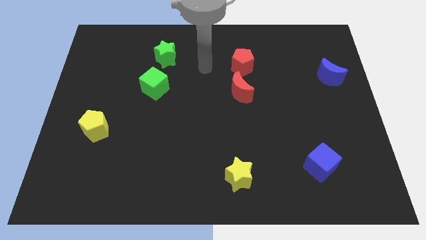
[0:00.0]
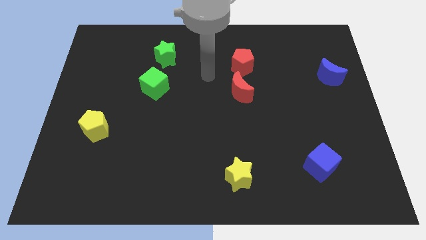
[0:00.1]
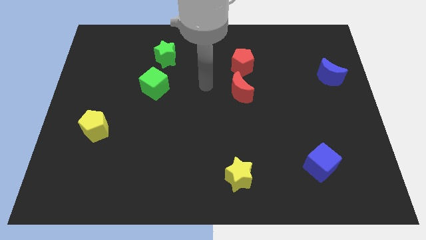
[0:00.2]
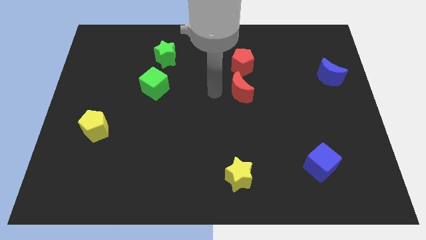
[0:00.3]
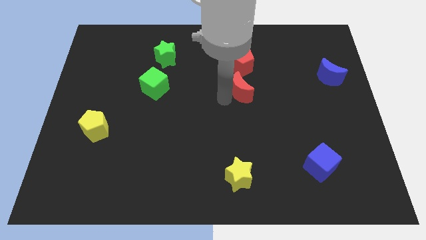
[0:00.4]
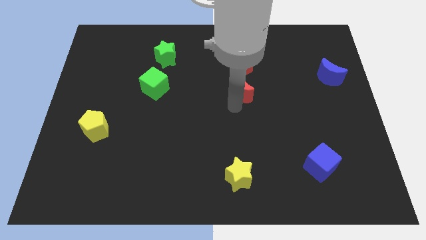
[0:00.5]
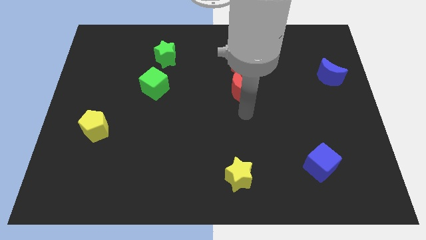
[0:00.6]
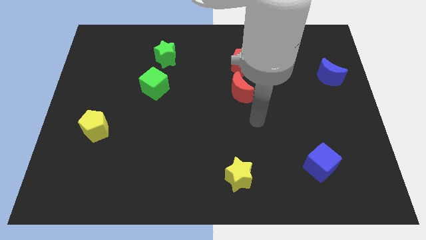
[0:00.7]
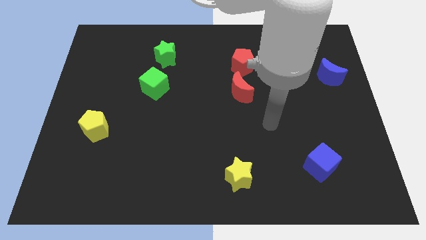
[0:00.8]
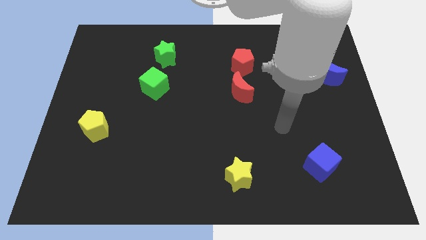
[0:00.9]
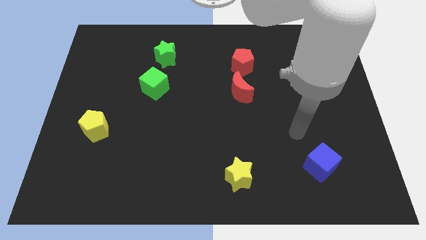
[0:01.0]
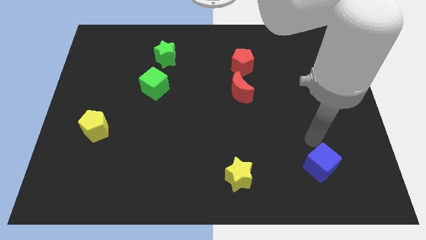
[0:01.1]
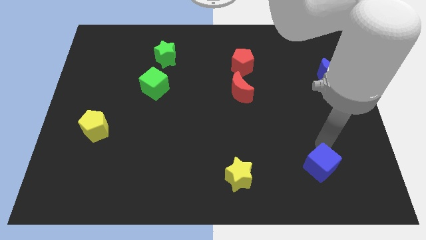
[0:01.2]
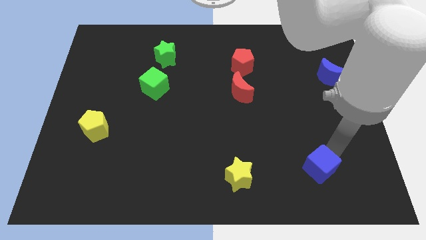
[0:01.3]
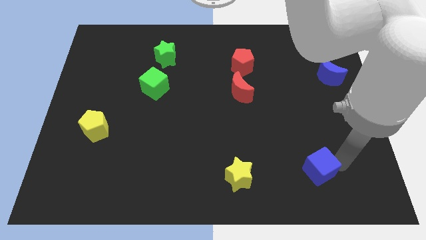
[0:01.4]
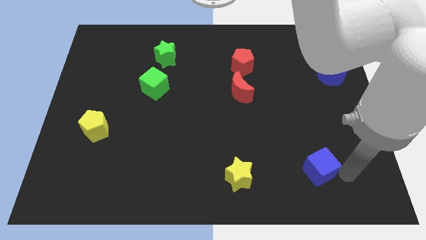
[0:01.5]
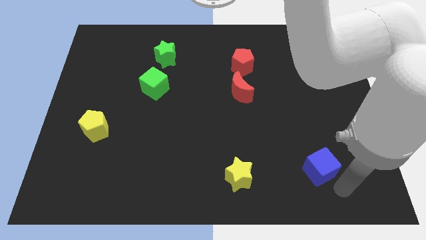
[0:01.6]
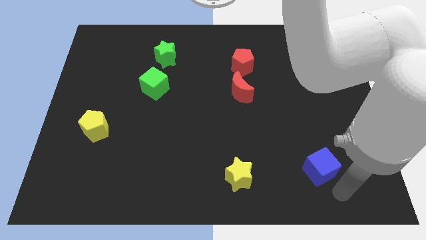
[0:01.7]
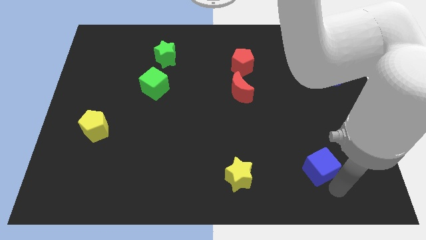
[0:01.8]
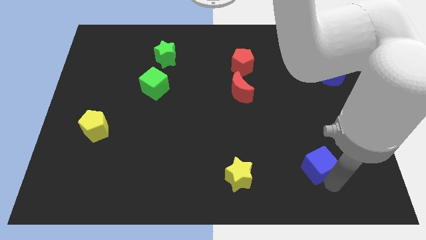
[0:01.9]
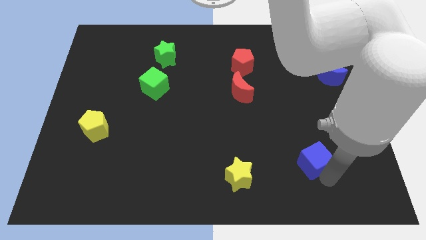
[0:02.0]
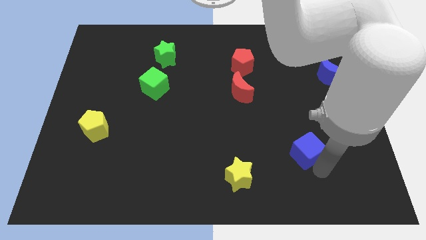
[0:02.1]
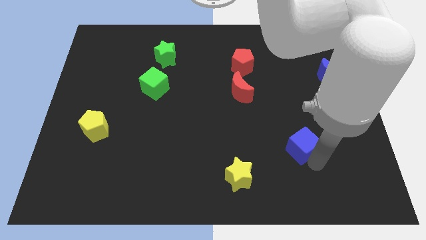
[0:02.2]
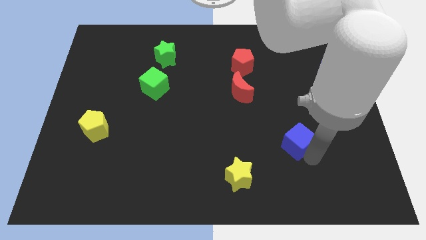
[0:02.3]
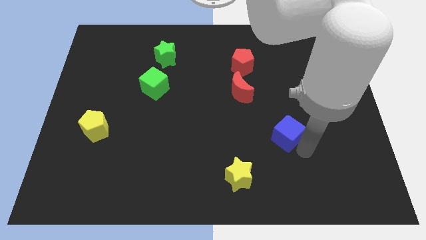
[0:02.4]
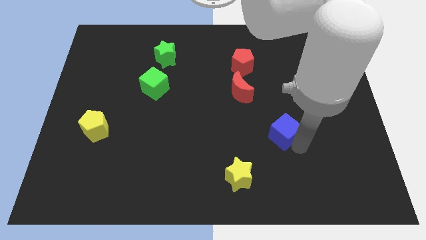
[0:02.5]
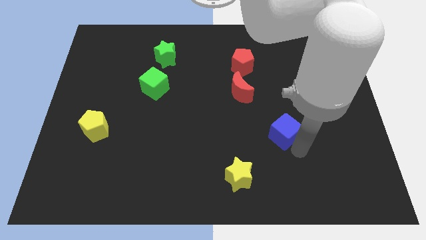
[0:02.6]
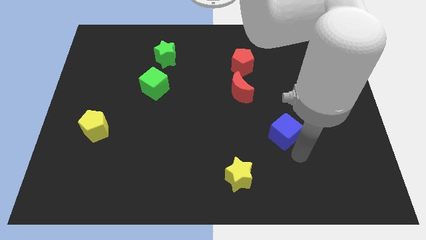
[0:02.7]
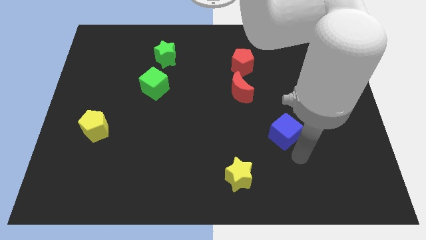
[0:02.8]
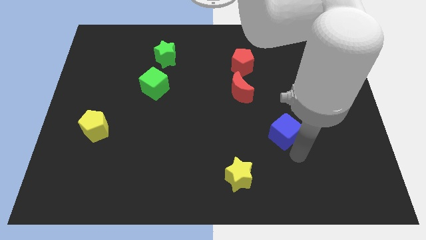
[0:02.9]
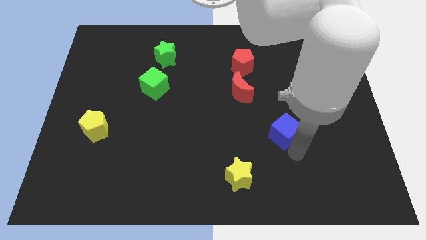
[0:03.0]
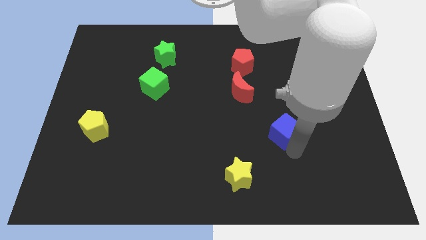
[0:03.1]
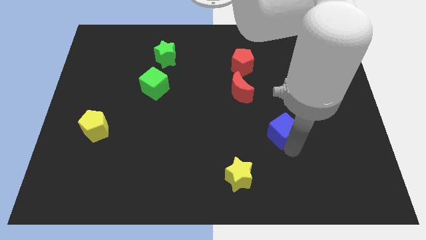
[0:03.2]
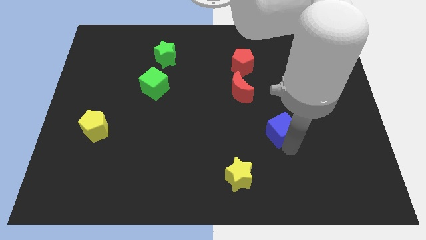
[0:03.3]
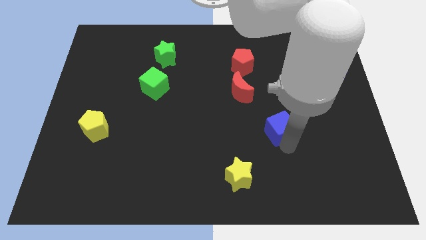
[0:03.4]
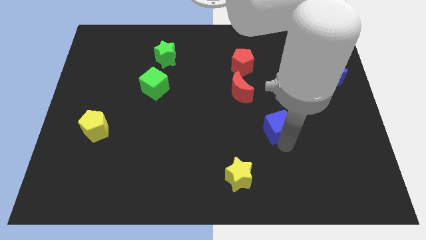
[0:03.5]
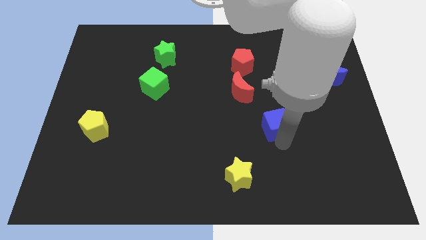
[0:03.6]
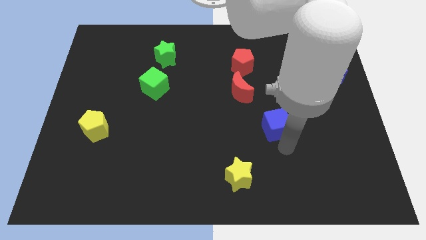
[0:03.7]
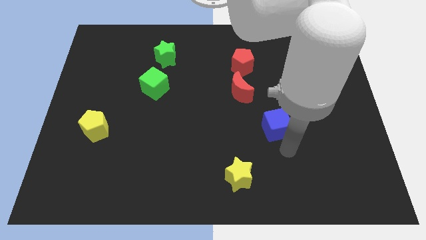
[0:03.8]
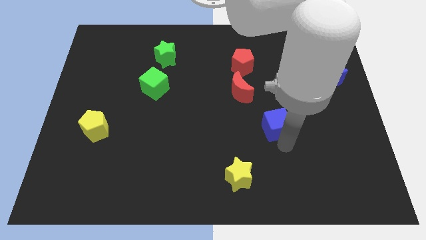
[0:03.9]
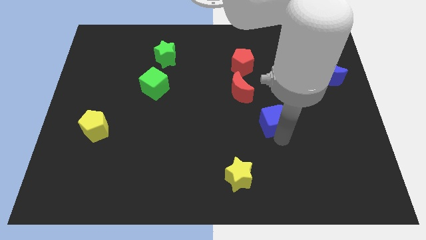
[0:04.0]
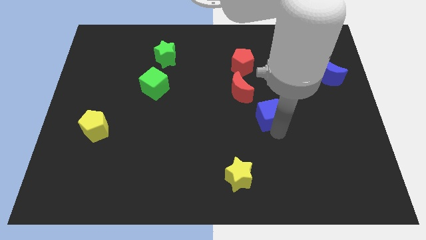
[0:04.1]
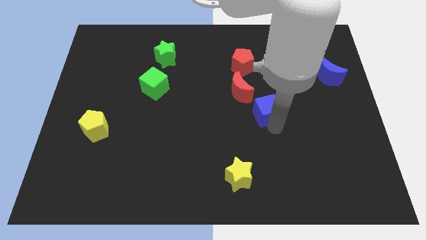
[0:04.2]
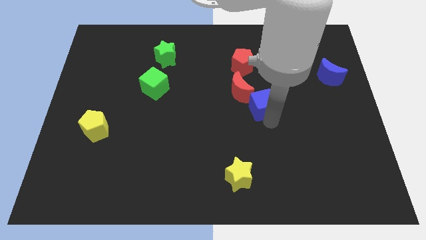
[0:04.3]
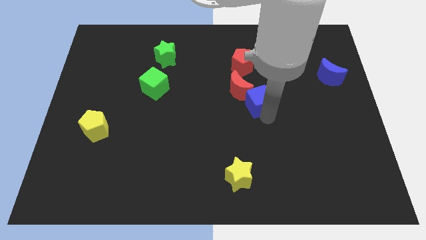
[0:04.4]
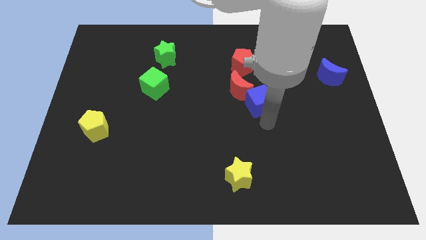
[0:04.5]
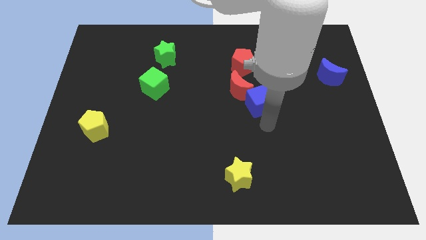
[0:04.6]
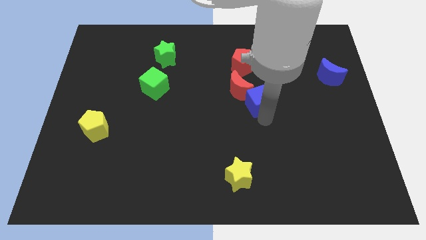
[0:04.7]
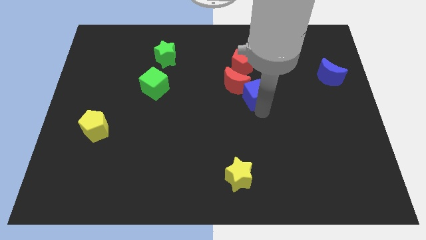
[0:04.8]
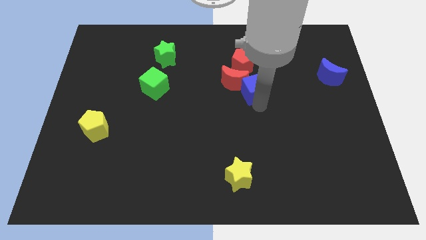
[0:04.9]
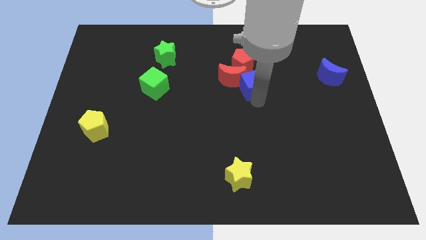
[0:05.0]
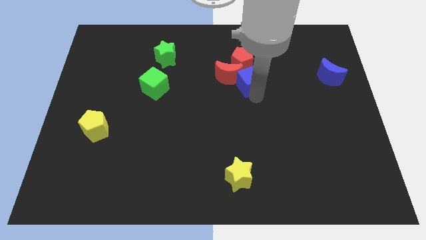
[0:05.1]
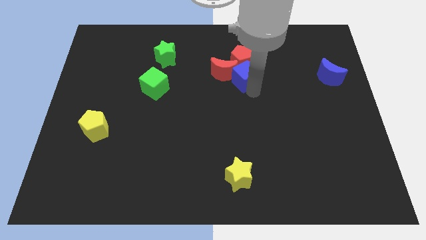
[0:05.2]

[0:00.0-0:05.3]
put the blue cube close to the red pentagon

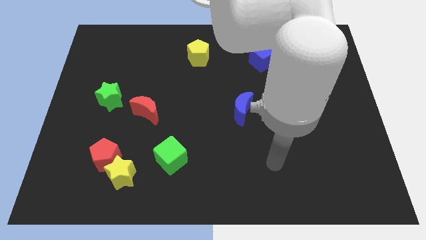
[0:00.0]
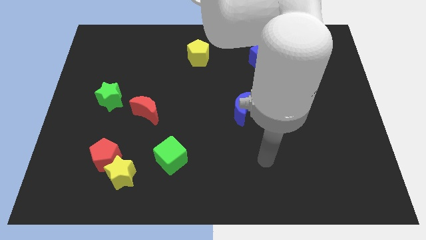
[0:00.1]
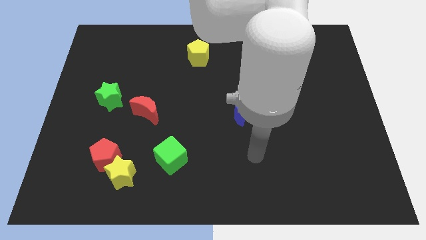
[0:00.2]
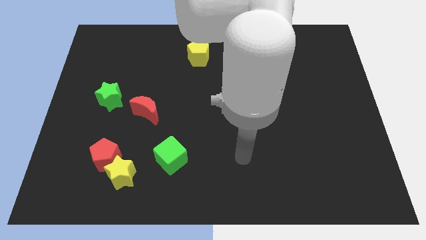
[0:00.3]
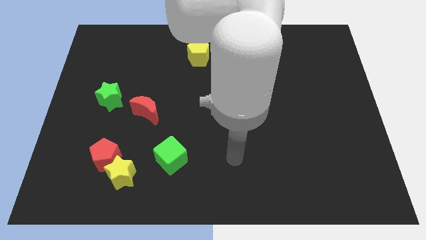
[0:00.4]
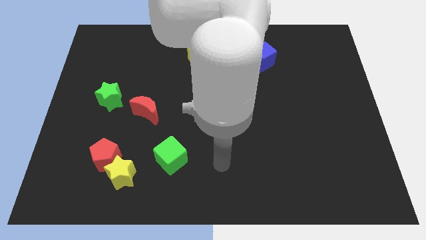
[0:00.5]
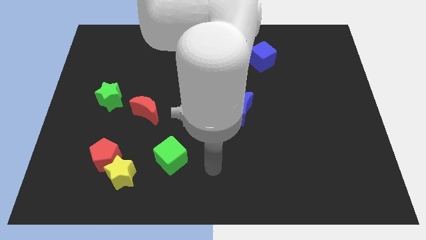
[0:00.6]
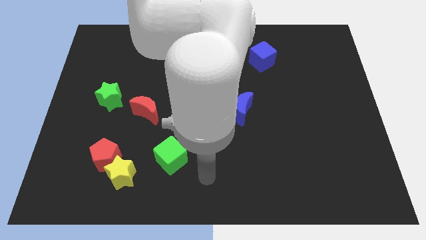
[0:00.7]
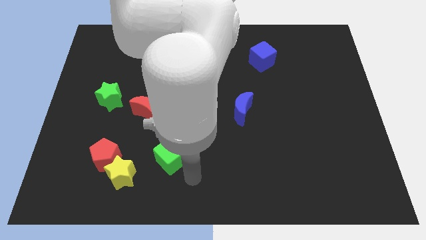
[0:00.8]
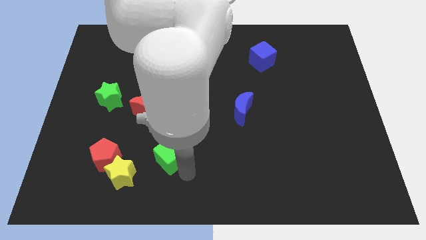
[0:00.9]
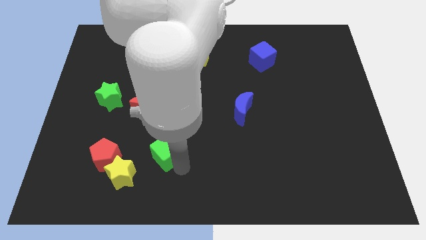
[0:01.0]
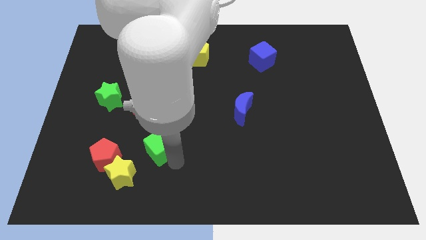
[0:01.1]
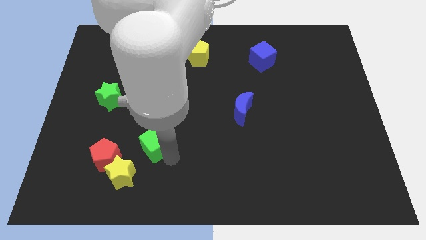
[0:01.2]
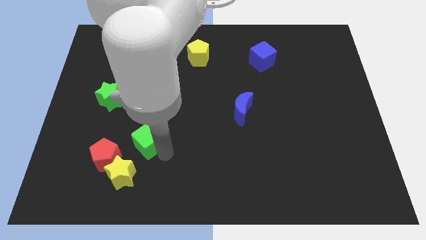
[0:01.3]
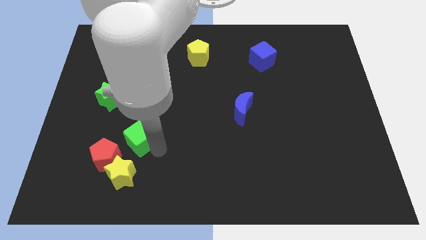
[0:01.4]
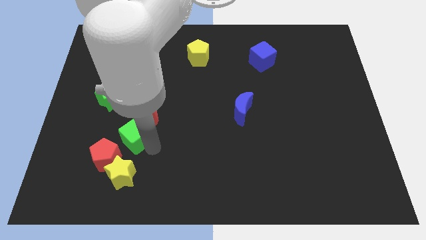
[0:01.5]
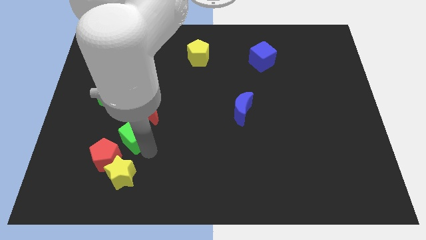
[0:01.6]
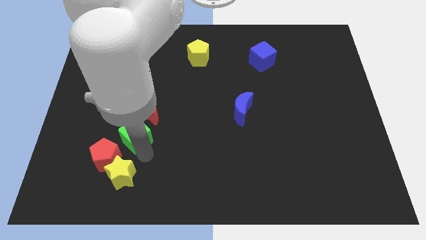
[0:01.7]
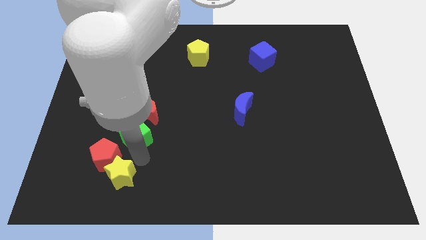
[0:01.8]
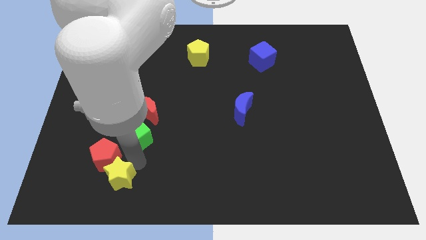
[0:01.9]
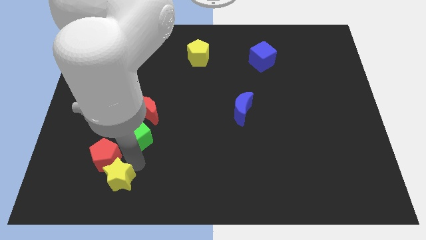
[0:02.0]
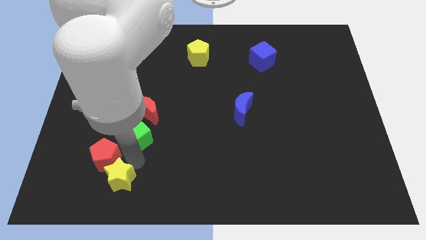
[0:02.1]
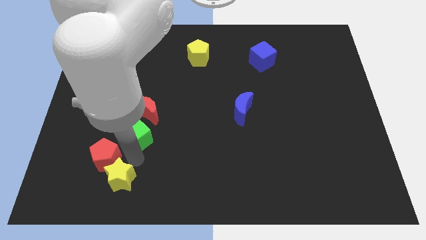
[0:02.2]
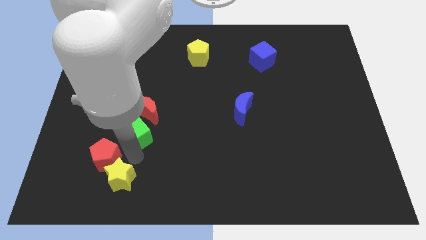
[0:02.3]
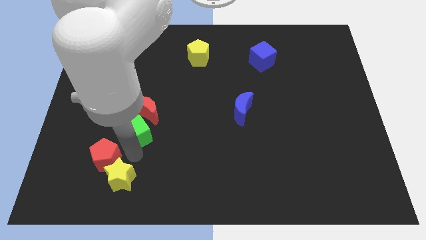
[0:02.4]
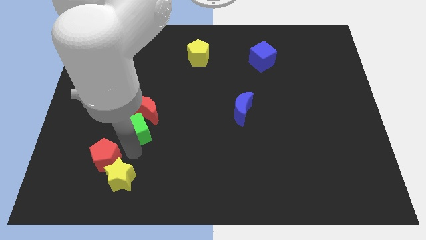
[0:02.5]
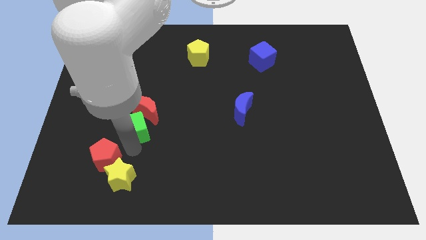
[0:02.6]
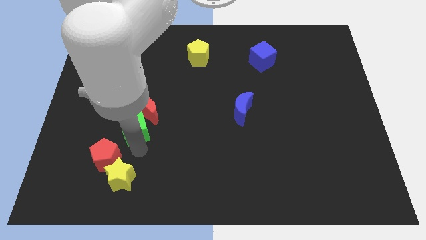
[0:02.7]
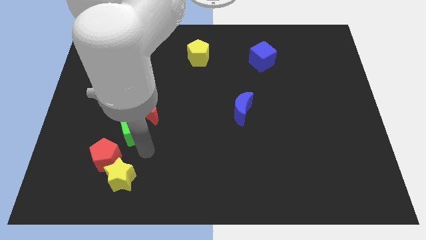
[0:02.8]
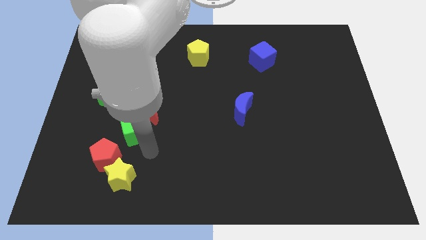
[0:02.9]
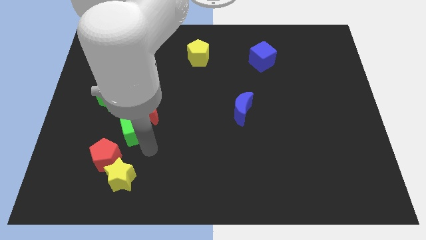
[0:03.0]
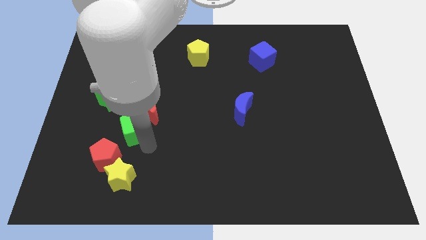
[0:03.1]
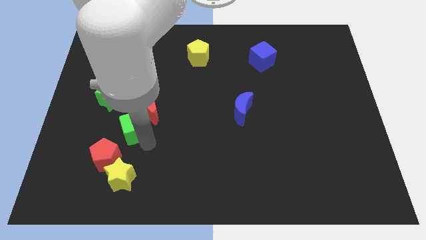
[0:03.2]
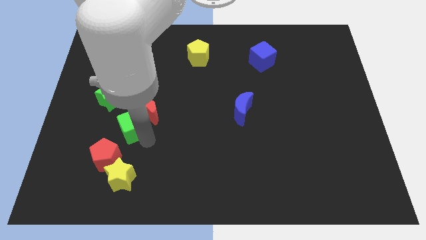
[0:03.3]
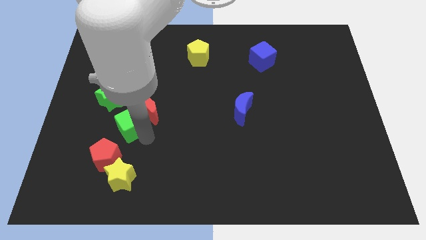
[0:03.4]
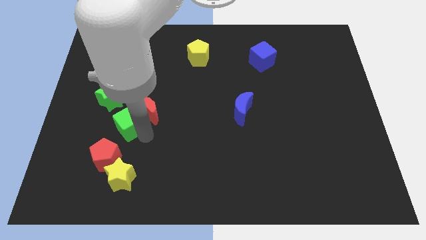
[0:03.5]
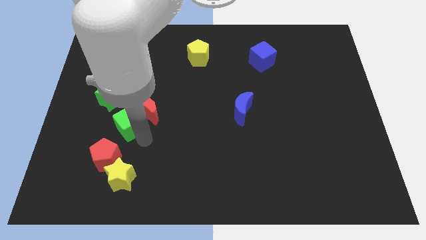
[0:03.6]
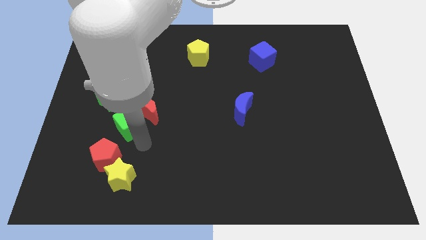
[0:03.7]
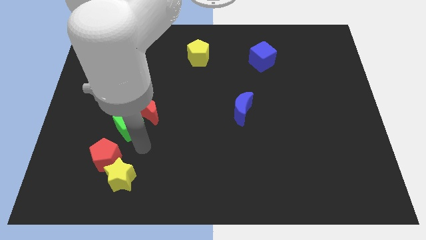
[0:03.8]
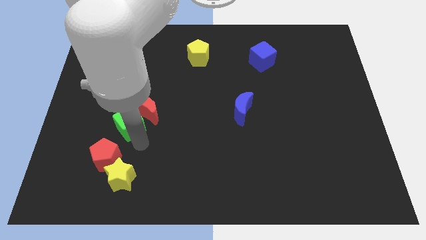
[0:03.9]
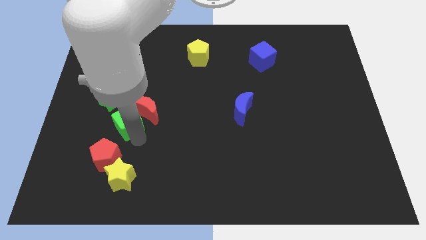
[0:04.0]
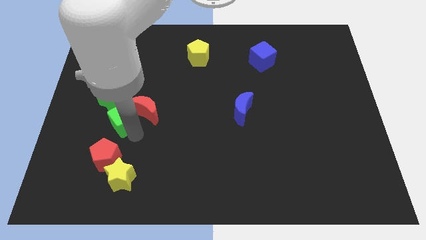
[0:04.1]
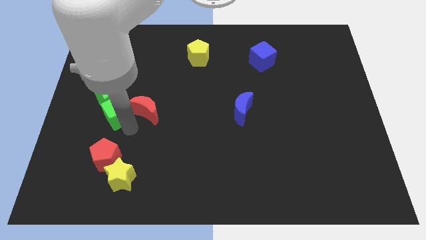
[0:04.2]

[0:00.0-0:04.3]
push the green cube to the green star
